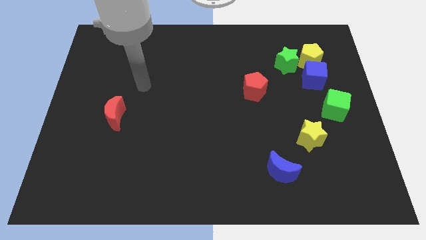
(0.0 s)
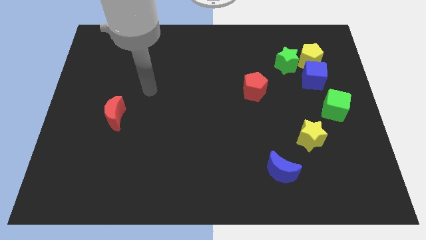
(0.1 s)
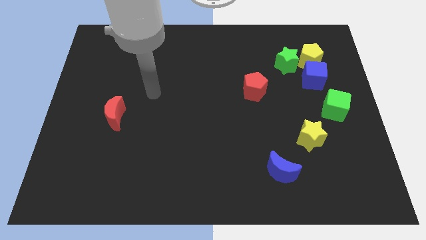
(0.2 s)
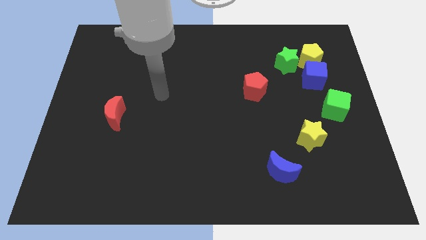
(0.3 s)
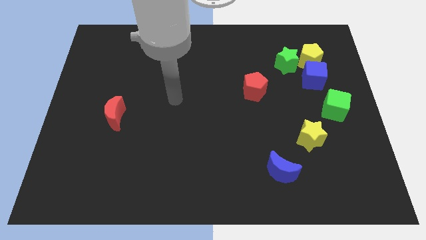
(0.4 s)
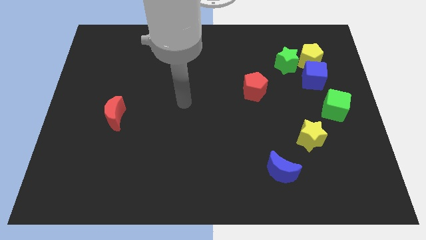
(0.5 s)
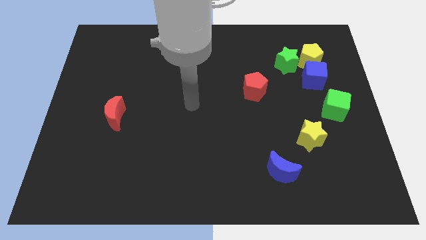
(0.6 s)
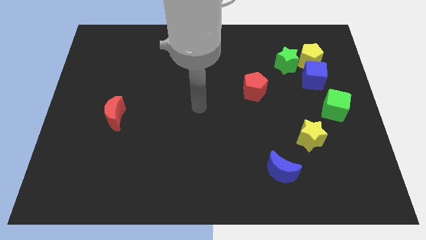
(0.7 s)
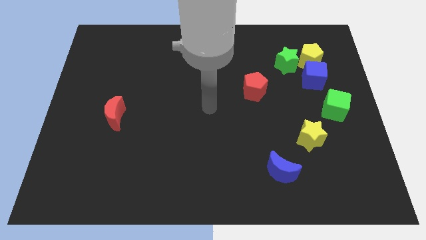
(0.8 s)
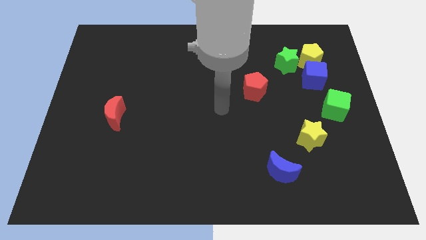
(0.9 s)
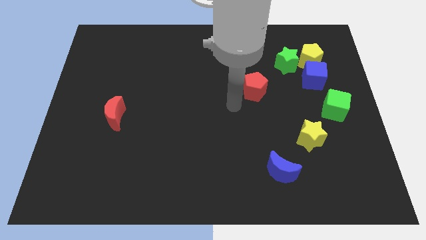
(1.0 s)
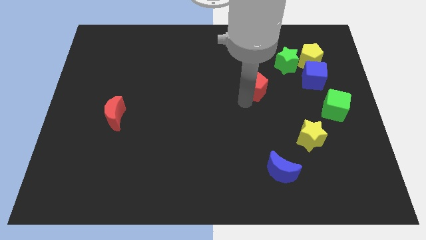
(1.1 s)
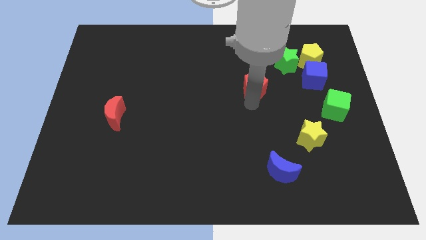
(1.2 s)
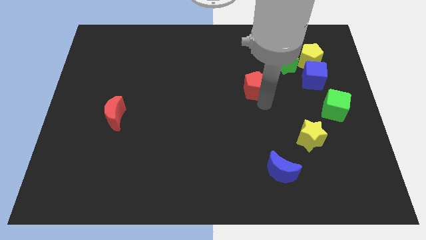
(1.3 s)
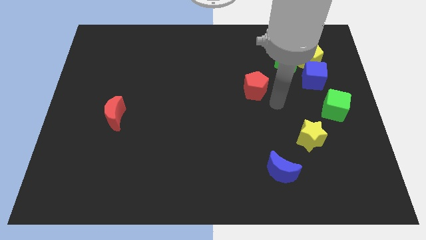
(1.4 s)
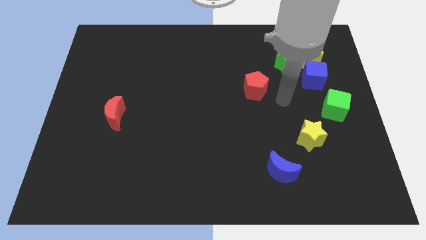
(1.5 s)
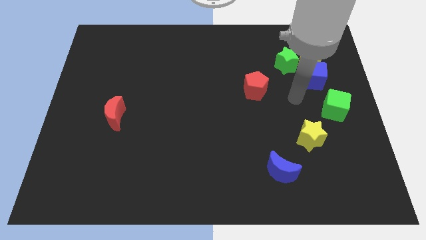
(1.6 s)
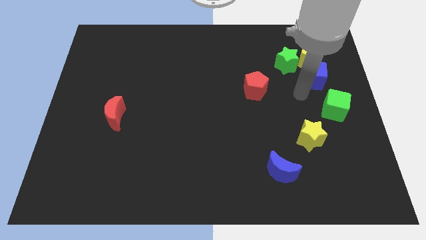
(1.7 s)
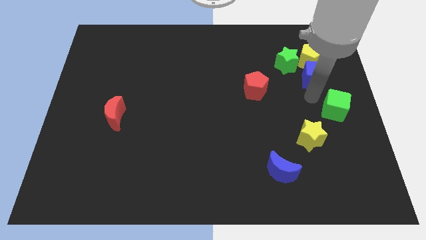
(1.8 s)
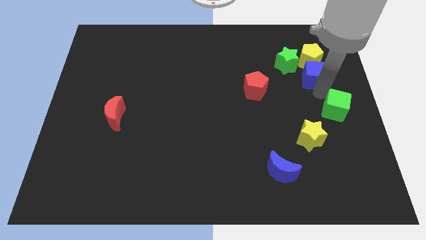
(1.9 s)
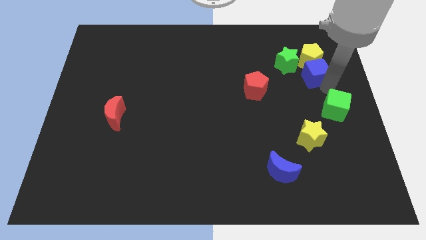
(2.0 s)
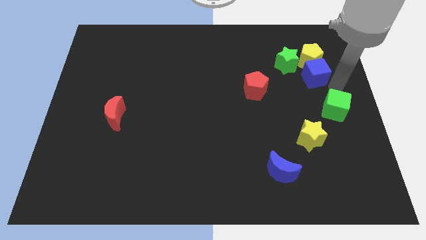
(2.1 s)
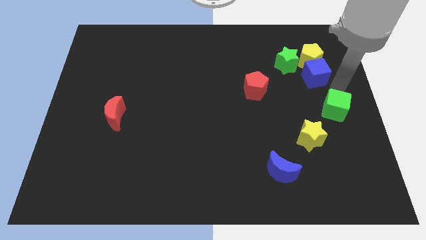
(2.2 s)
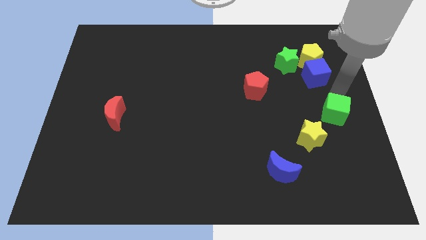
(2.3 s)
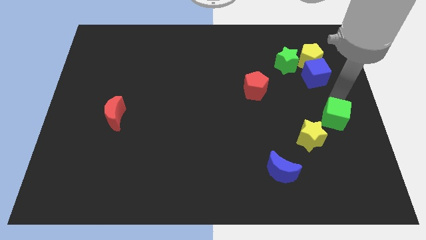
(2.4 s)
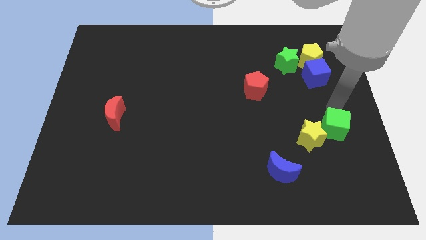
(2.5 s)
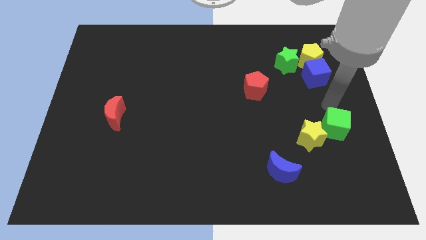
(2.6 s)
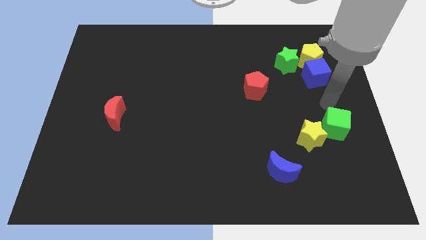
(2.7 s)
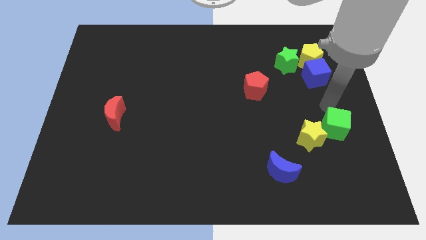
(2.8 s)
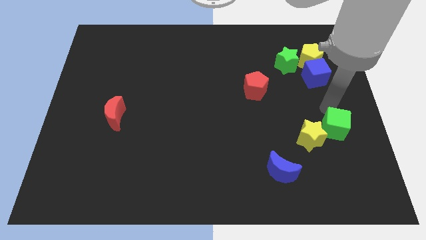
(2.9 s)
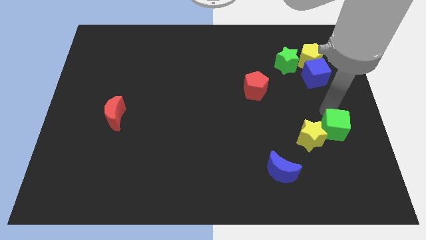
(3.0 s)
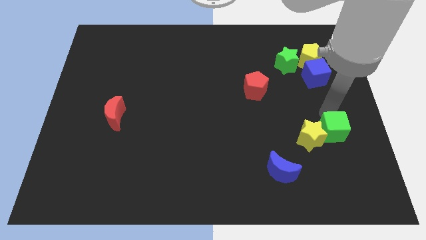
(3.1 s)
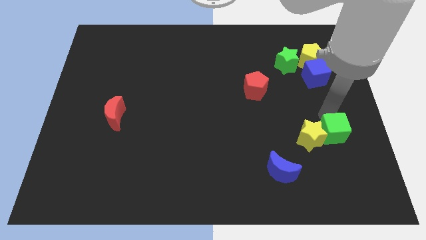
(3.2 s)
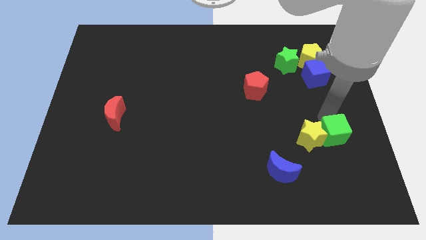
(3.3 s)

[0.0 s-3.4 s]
slightly move the green cube downwards

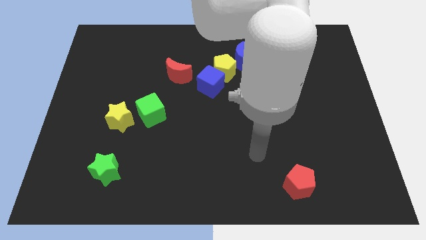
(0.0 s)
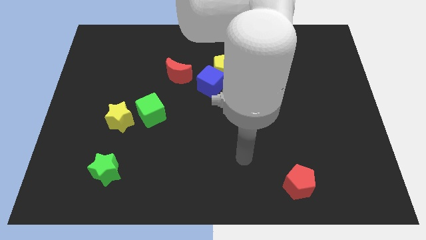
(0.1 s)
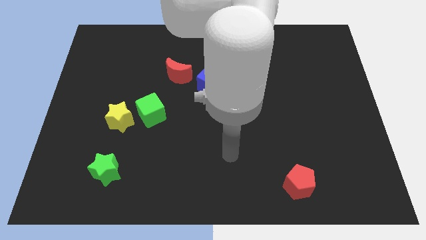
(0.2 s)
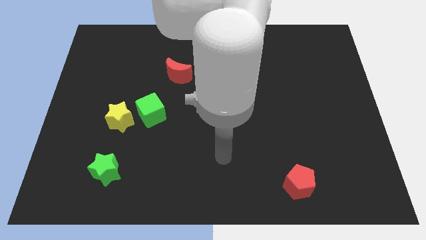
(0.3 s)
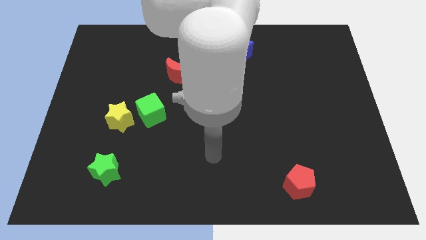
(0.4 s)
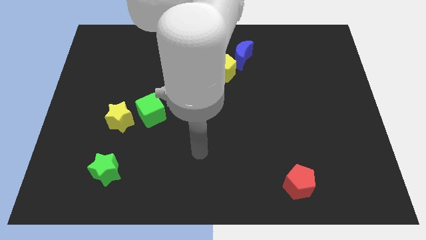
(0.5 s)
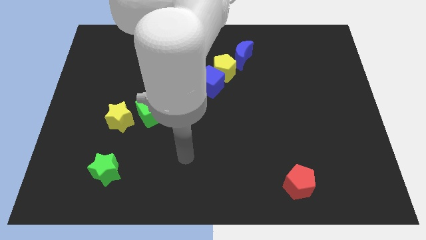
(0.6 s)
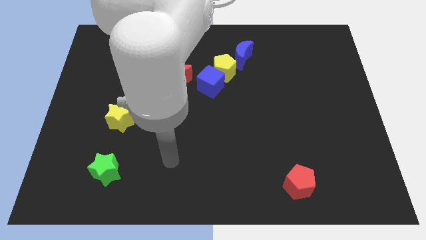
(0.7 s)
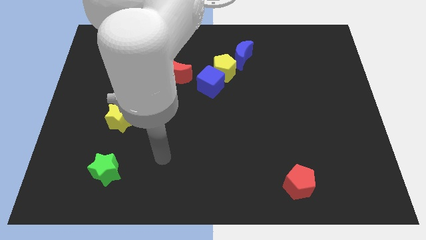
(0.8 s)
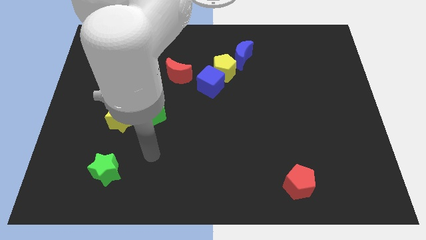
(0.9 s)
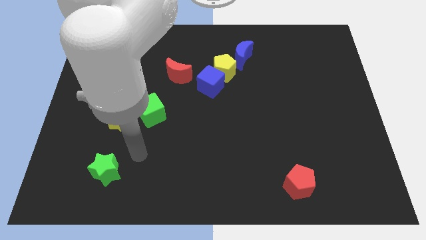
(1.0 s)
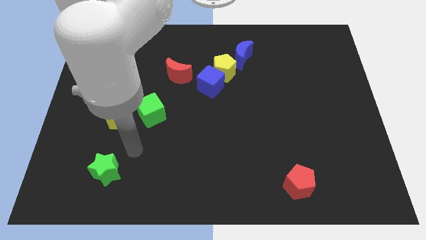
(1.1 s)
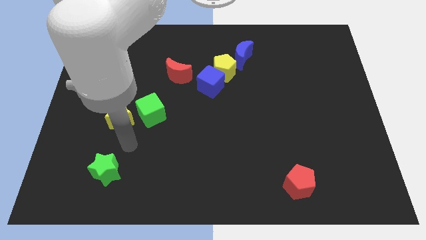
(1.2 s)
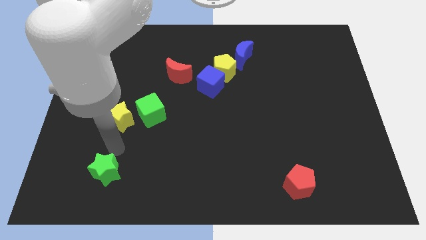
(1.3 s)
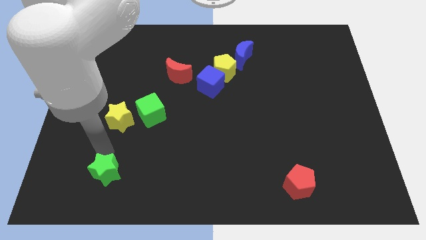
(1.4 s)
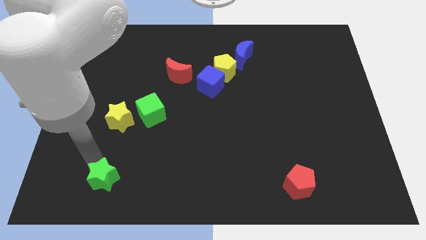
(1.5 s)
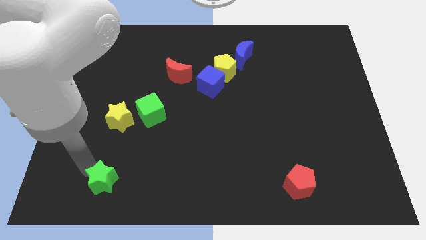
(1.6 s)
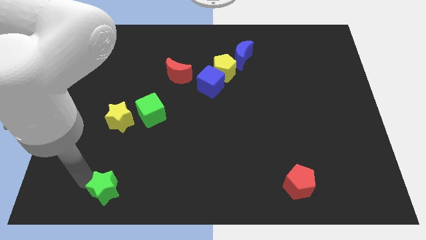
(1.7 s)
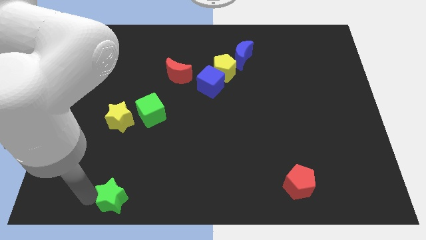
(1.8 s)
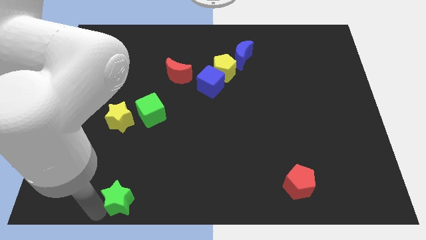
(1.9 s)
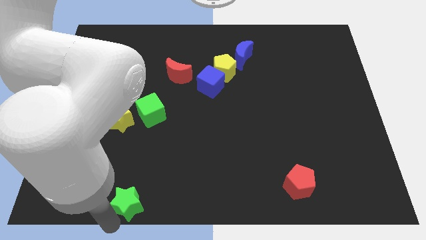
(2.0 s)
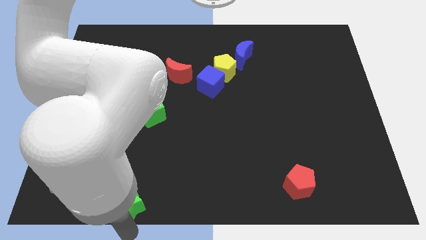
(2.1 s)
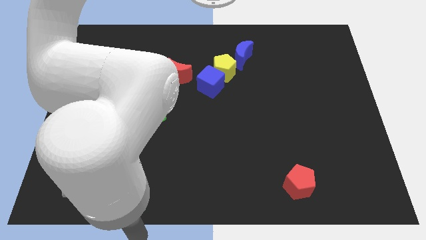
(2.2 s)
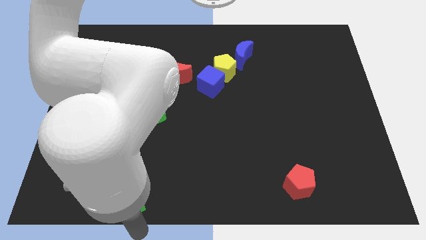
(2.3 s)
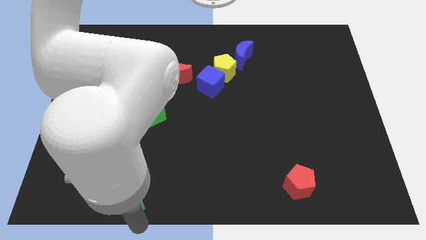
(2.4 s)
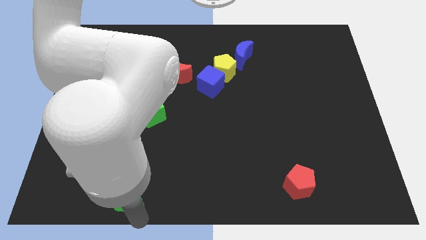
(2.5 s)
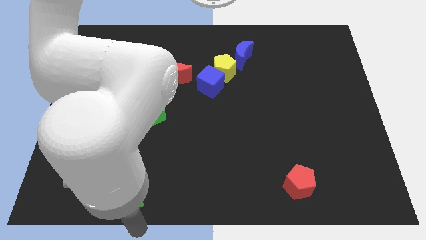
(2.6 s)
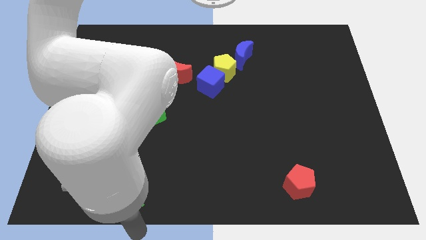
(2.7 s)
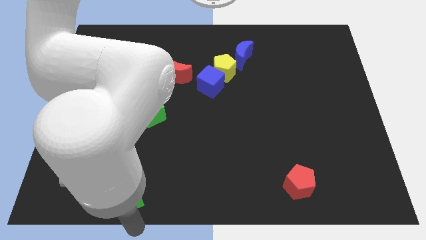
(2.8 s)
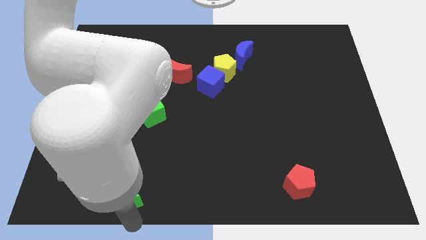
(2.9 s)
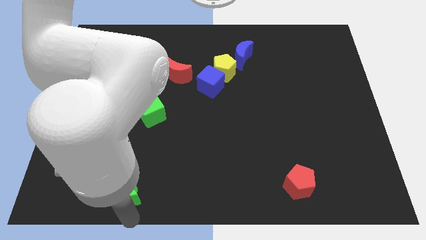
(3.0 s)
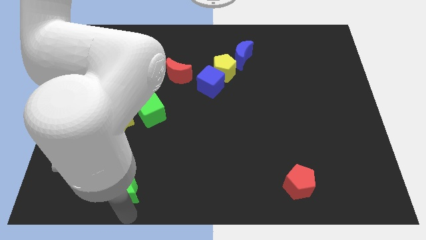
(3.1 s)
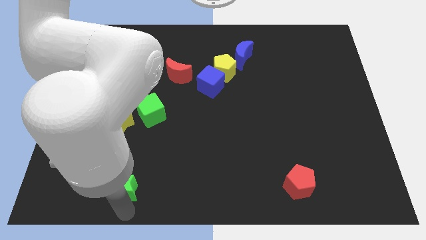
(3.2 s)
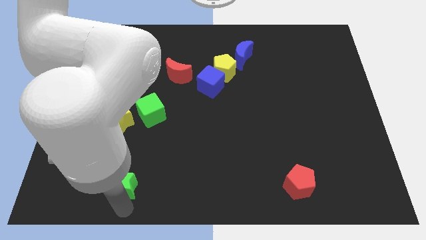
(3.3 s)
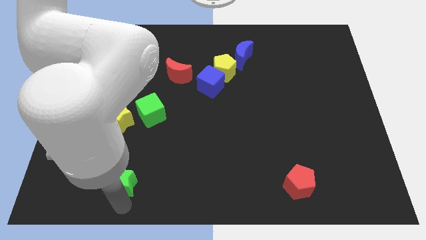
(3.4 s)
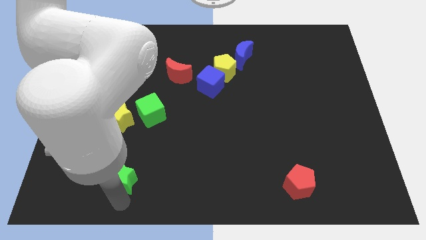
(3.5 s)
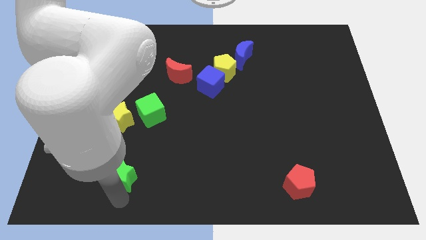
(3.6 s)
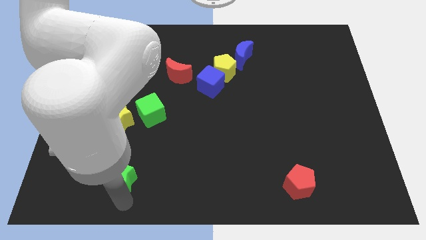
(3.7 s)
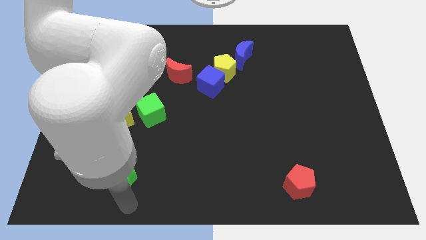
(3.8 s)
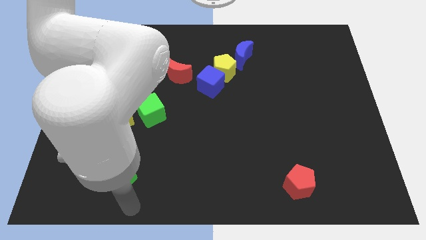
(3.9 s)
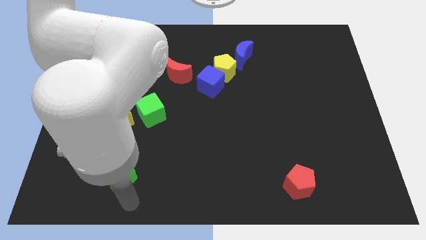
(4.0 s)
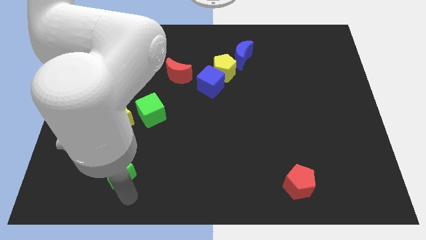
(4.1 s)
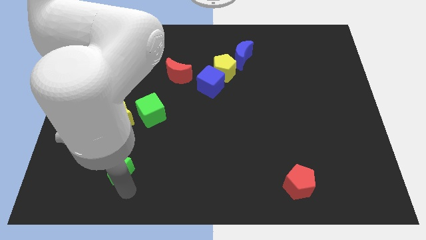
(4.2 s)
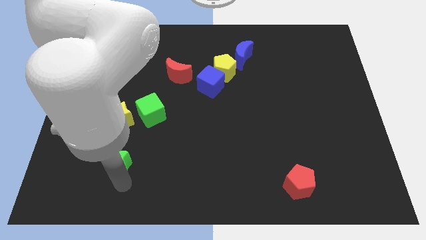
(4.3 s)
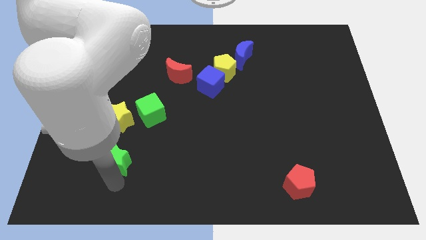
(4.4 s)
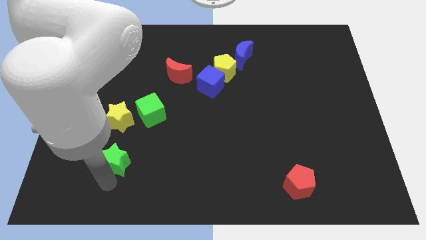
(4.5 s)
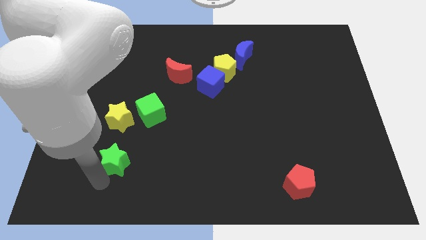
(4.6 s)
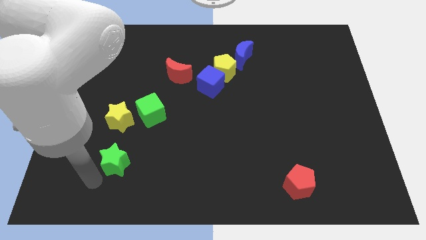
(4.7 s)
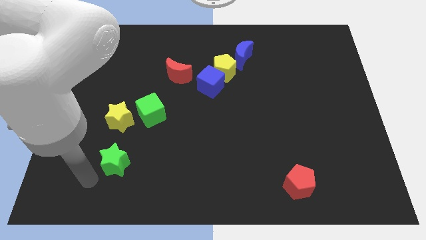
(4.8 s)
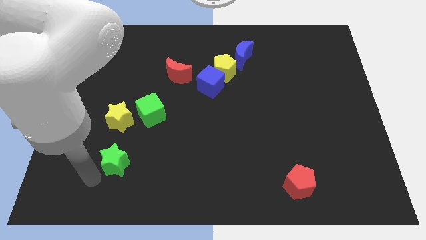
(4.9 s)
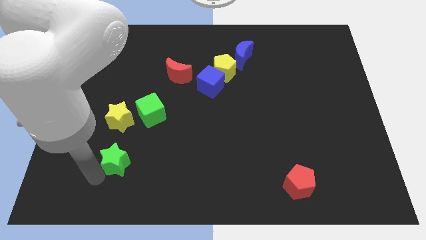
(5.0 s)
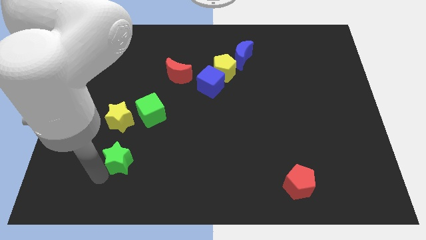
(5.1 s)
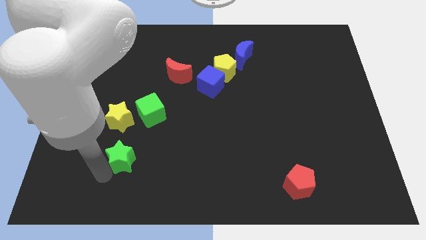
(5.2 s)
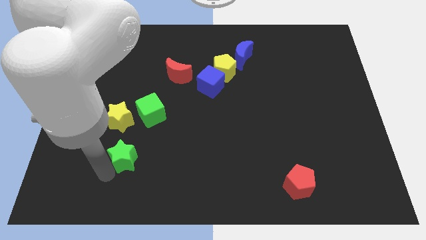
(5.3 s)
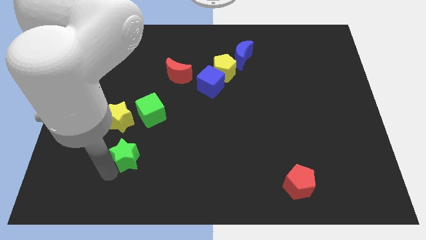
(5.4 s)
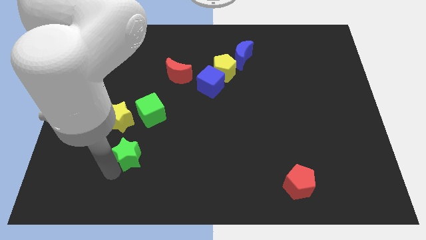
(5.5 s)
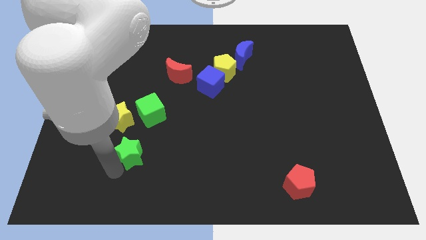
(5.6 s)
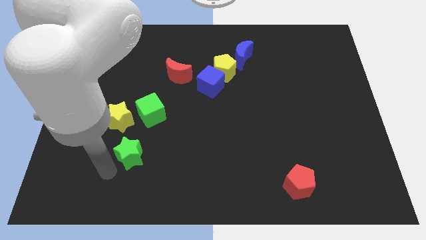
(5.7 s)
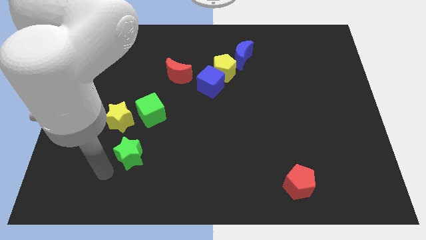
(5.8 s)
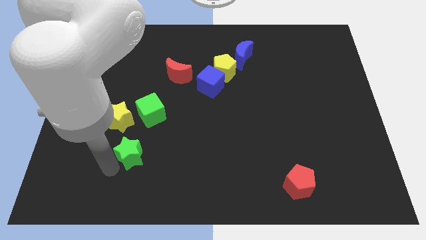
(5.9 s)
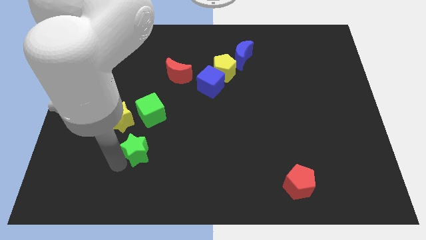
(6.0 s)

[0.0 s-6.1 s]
push the green star upwards and to the right a little
